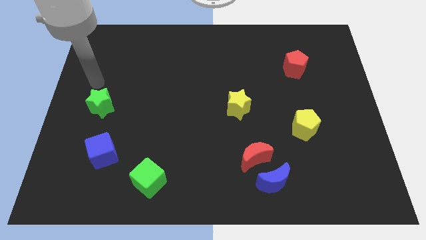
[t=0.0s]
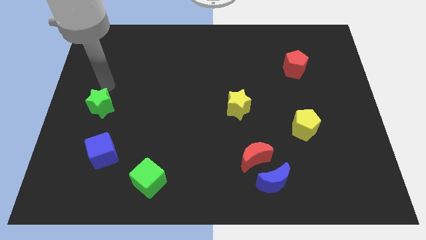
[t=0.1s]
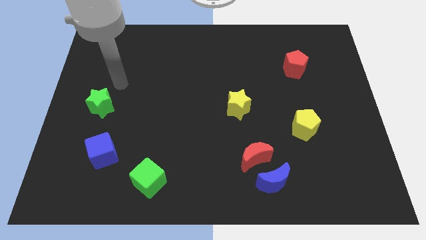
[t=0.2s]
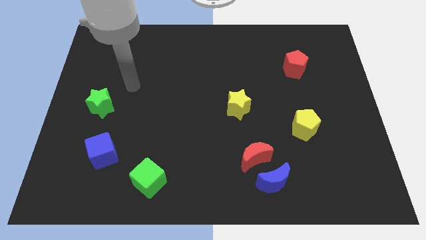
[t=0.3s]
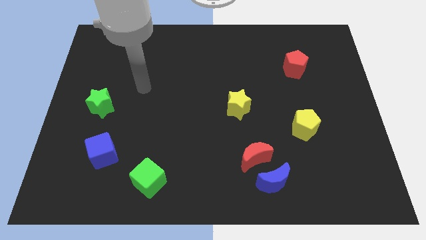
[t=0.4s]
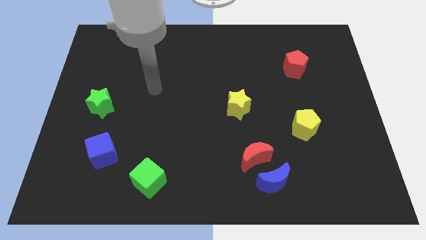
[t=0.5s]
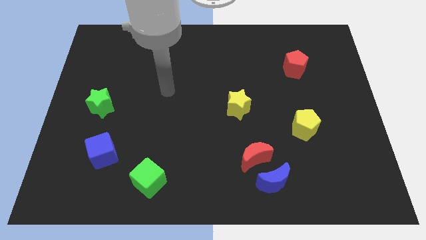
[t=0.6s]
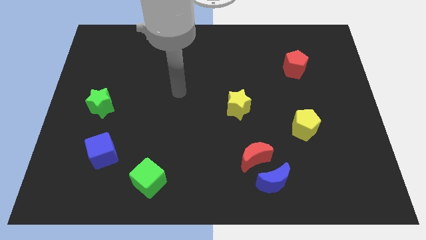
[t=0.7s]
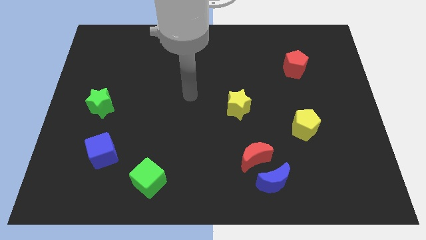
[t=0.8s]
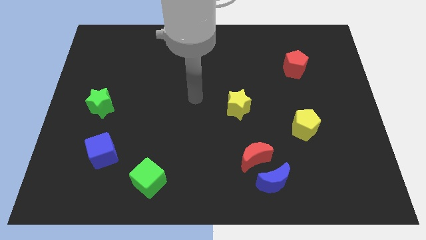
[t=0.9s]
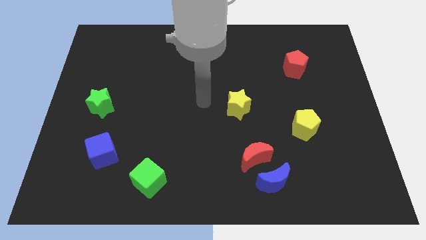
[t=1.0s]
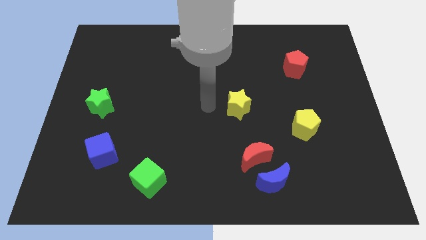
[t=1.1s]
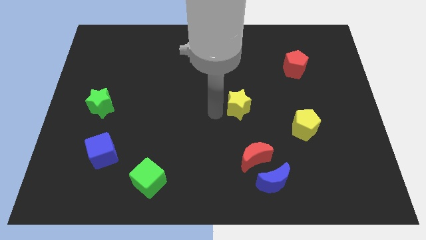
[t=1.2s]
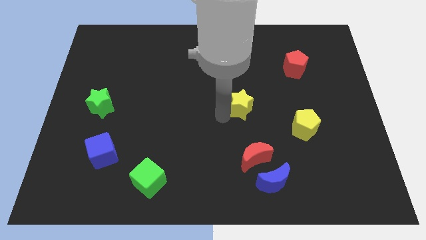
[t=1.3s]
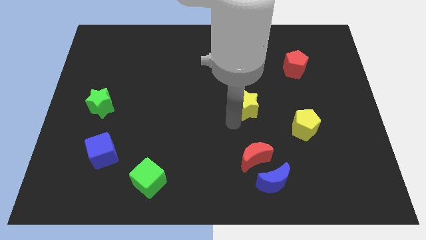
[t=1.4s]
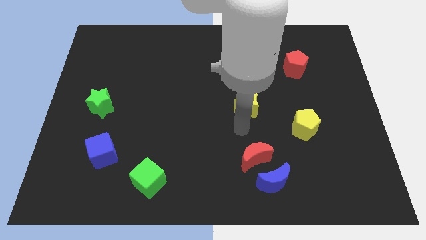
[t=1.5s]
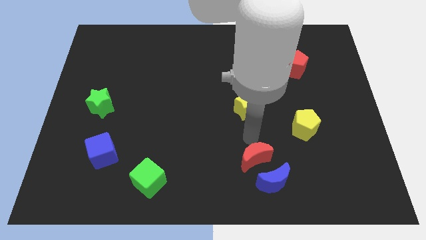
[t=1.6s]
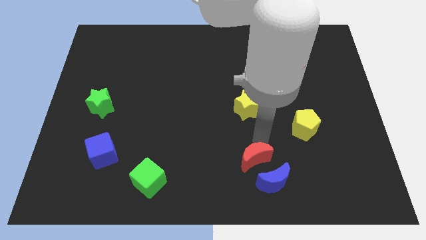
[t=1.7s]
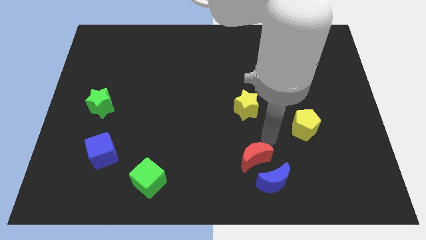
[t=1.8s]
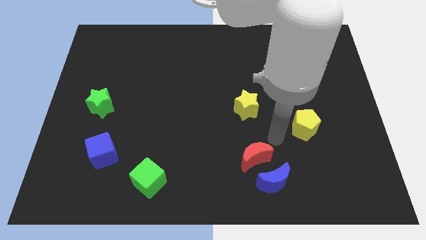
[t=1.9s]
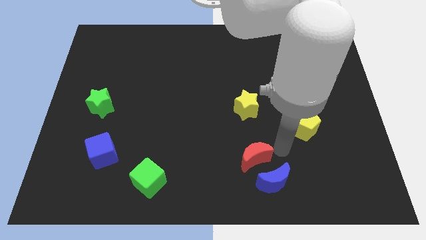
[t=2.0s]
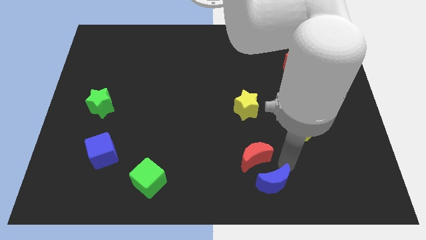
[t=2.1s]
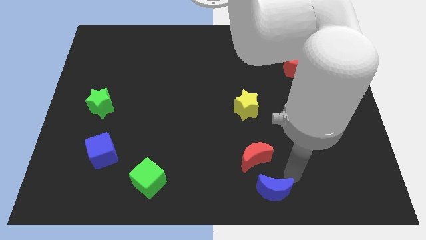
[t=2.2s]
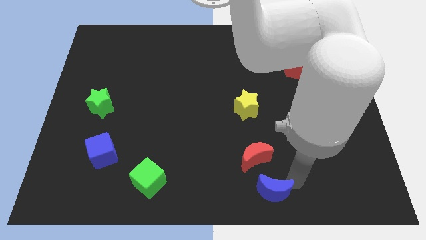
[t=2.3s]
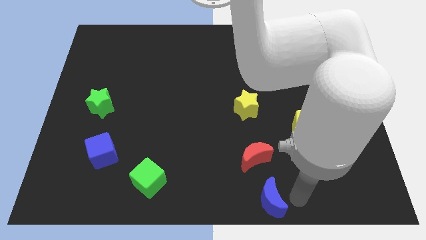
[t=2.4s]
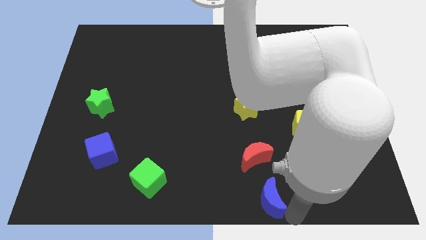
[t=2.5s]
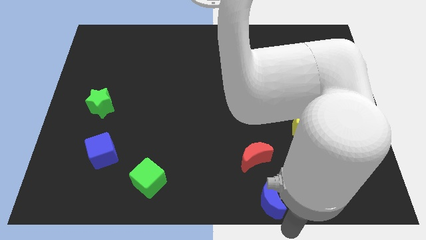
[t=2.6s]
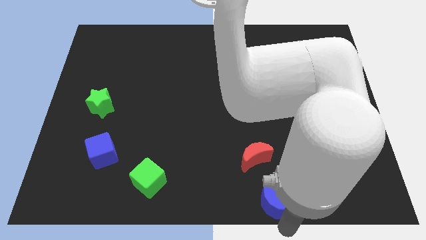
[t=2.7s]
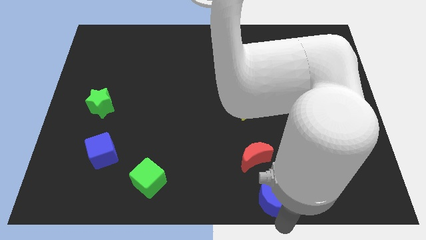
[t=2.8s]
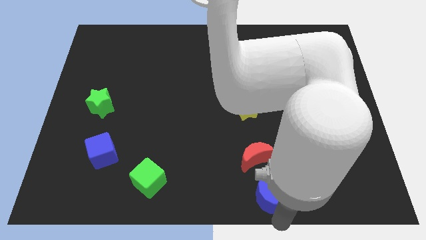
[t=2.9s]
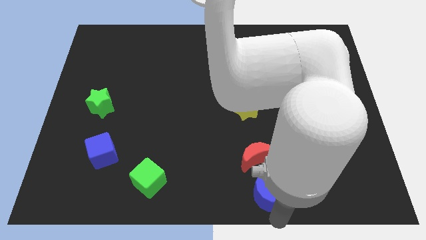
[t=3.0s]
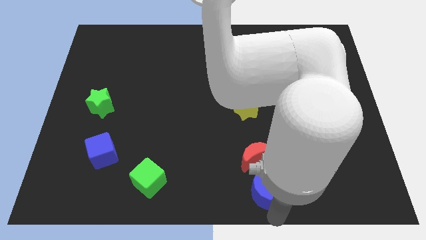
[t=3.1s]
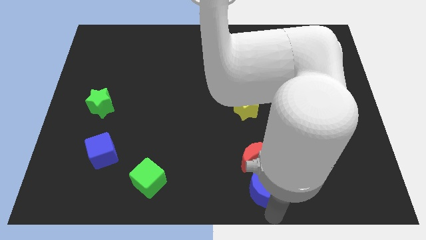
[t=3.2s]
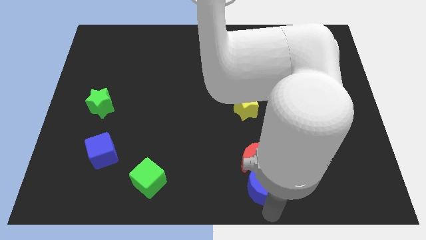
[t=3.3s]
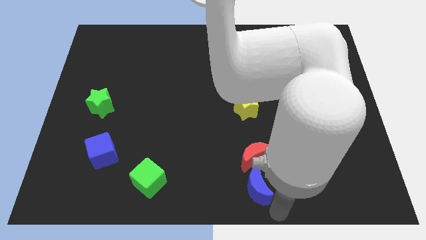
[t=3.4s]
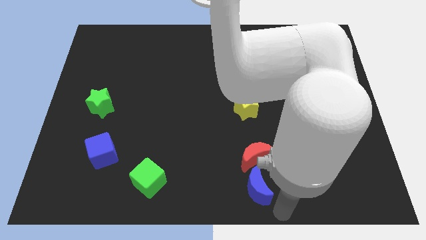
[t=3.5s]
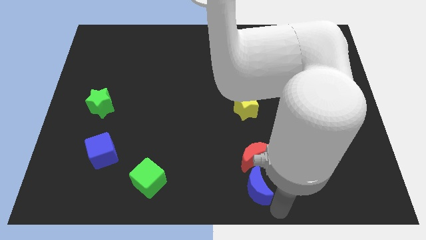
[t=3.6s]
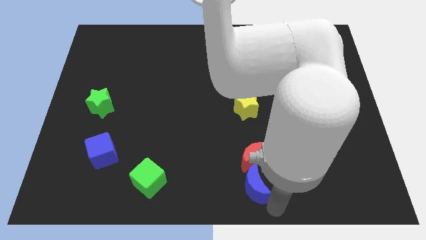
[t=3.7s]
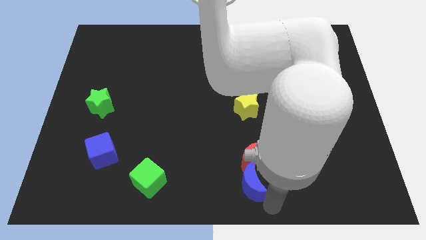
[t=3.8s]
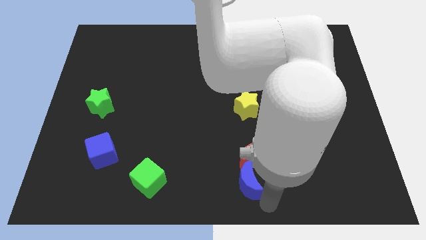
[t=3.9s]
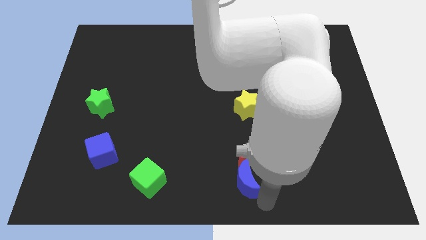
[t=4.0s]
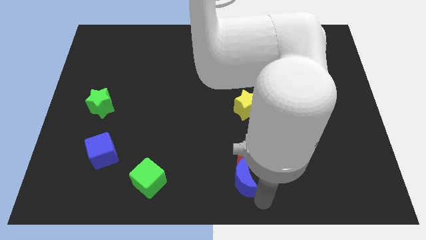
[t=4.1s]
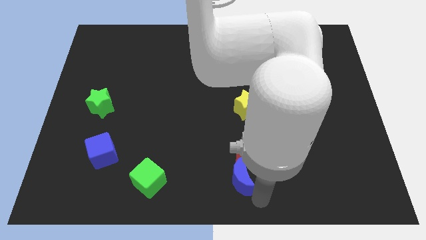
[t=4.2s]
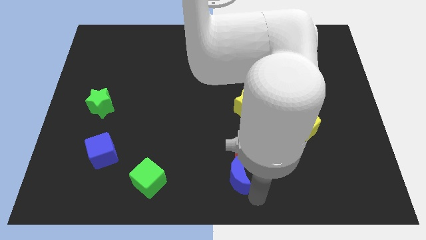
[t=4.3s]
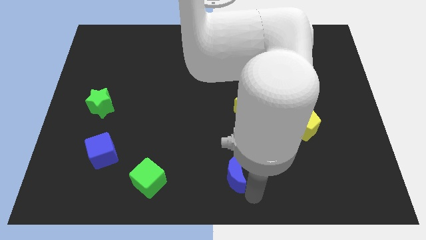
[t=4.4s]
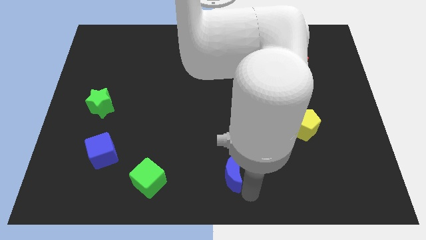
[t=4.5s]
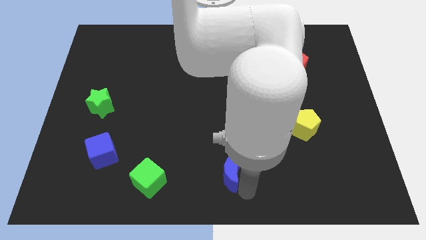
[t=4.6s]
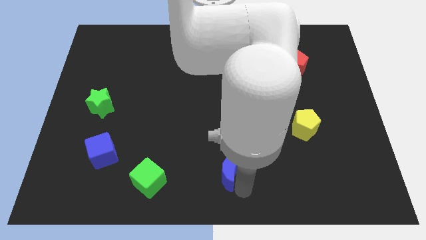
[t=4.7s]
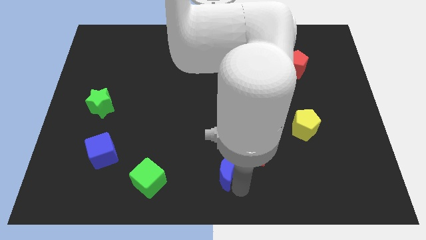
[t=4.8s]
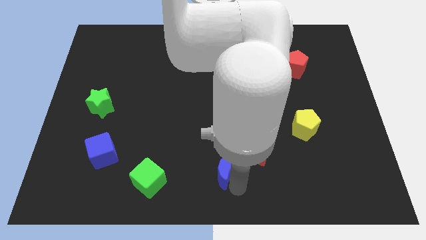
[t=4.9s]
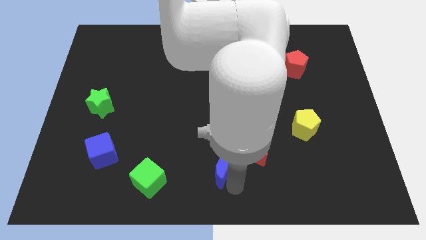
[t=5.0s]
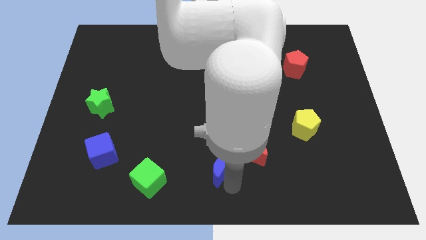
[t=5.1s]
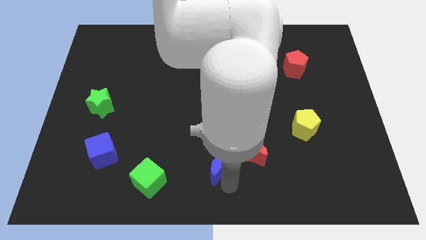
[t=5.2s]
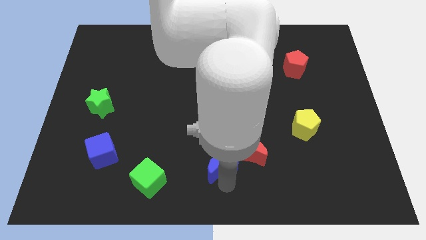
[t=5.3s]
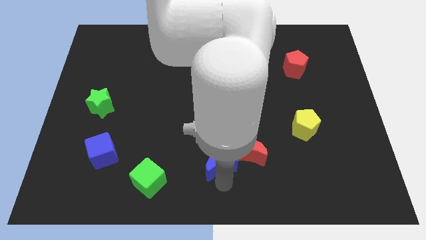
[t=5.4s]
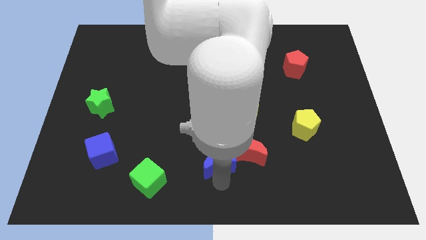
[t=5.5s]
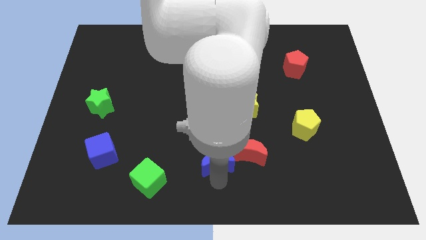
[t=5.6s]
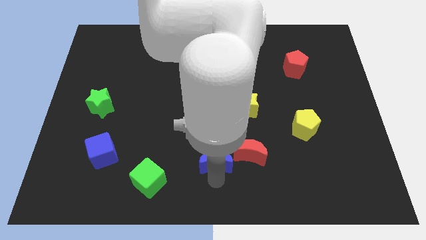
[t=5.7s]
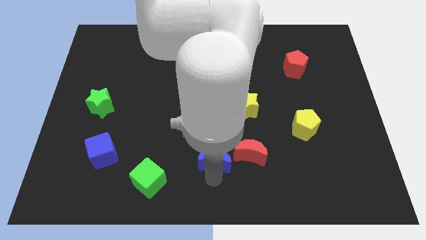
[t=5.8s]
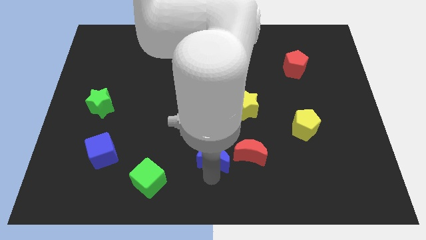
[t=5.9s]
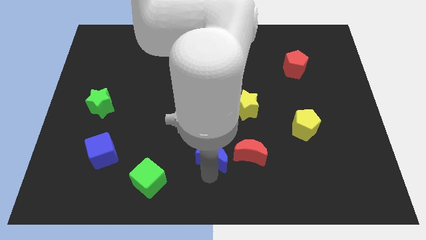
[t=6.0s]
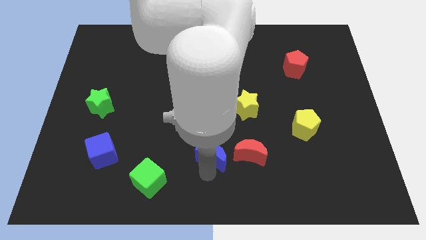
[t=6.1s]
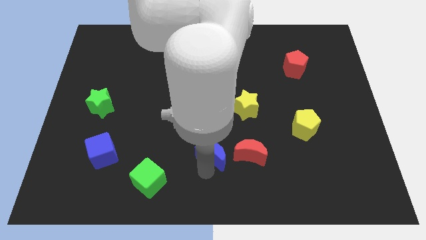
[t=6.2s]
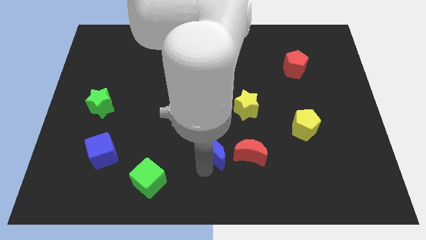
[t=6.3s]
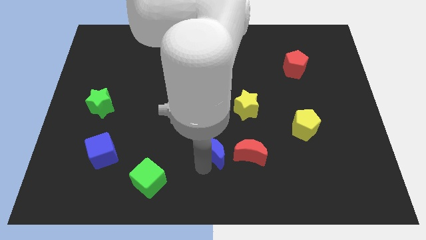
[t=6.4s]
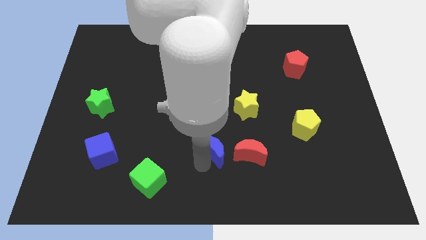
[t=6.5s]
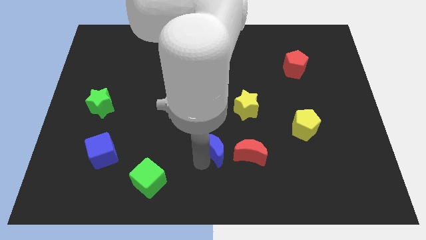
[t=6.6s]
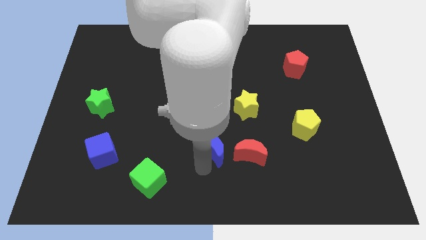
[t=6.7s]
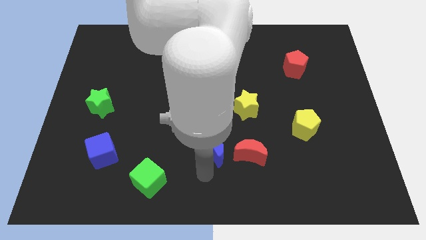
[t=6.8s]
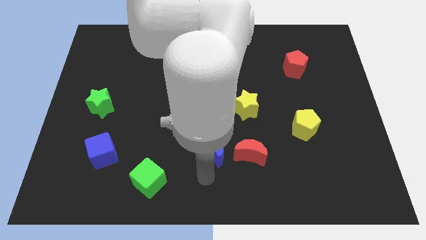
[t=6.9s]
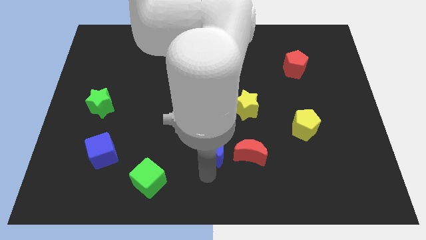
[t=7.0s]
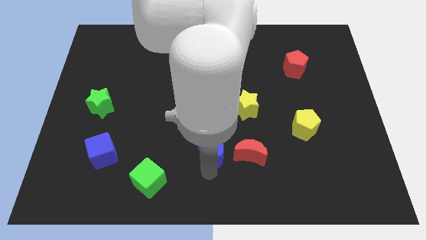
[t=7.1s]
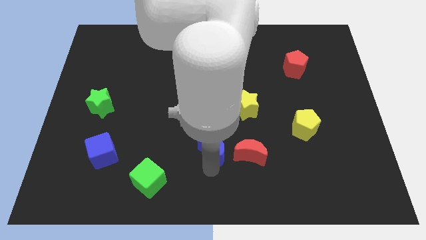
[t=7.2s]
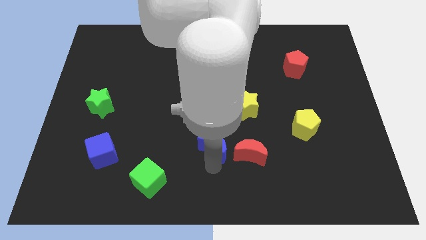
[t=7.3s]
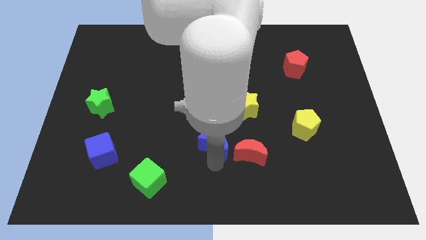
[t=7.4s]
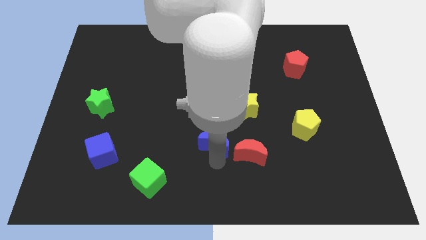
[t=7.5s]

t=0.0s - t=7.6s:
move the blue moon to the center of the board

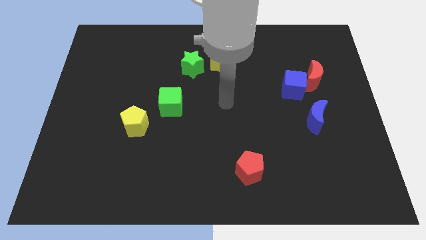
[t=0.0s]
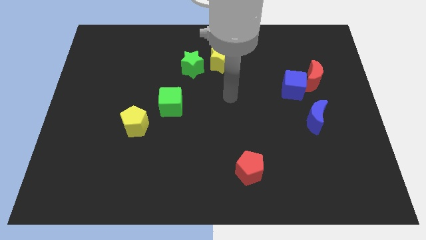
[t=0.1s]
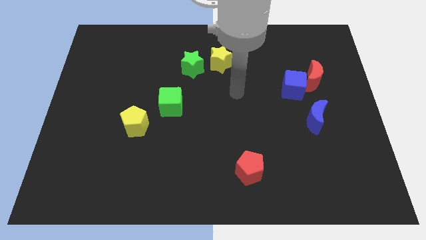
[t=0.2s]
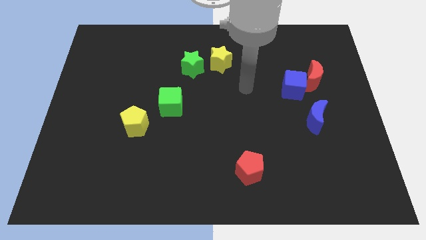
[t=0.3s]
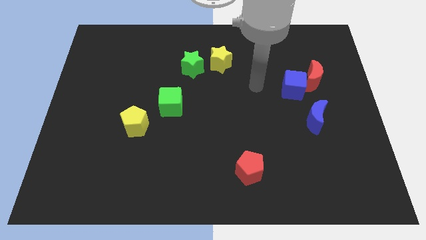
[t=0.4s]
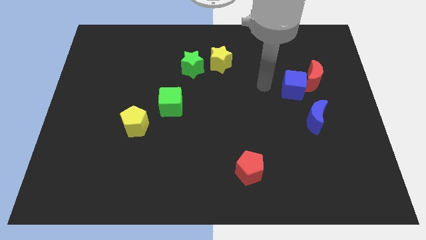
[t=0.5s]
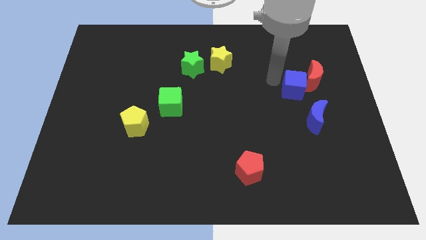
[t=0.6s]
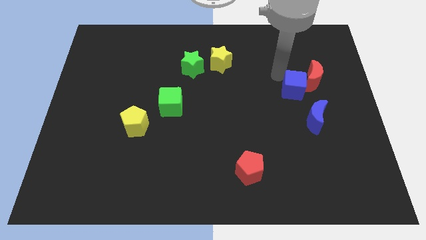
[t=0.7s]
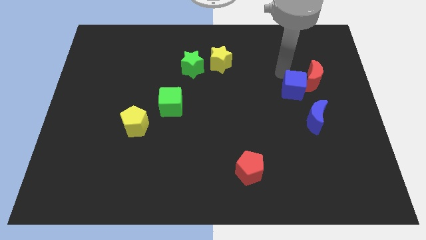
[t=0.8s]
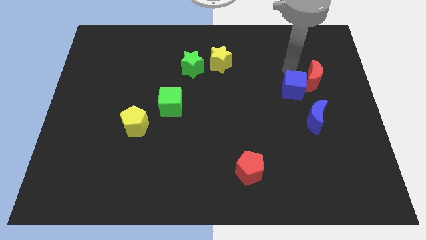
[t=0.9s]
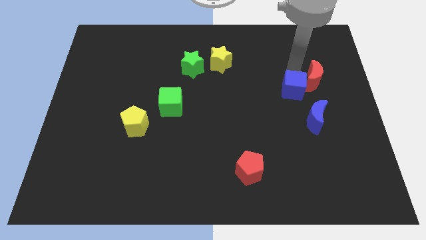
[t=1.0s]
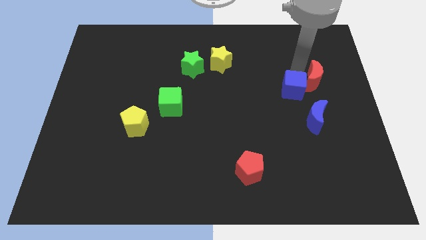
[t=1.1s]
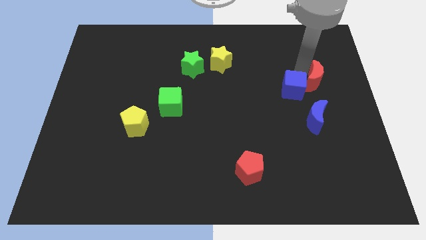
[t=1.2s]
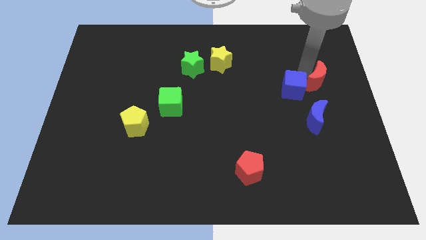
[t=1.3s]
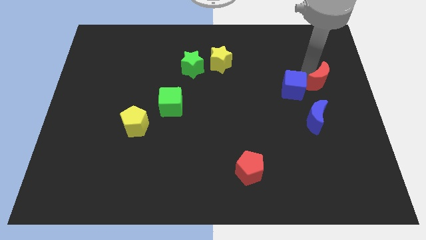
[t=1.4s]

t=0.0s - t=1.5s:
push the red moon to the right side
